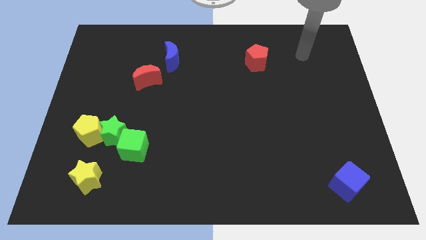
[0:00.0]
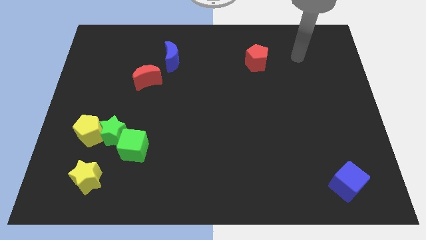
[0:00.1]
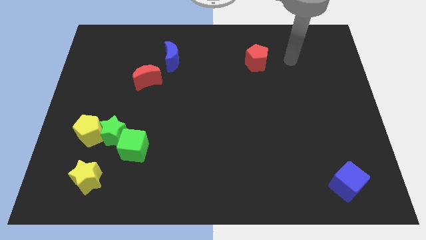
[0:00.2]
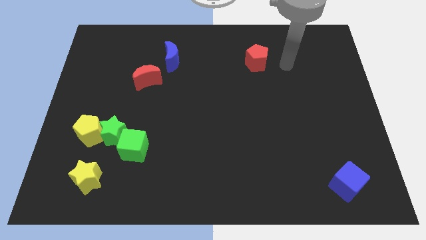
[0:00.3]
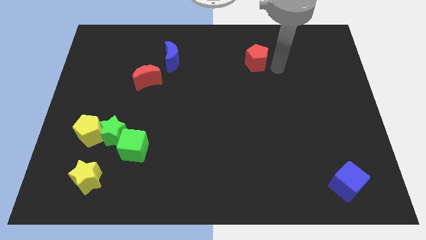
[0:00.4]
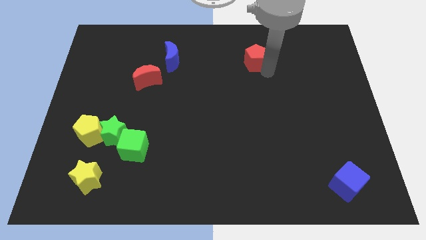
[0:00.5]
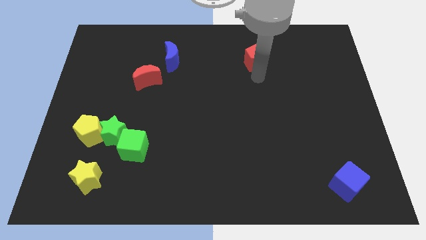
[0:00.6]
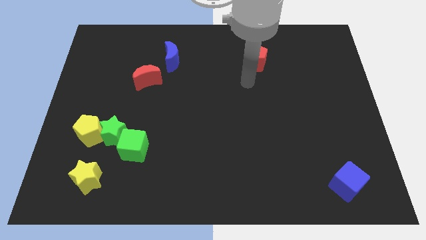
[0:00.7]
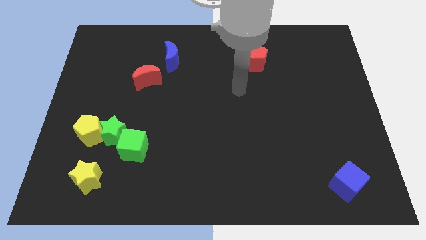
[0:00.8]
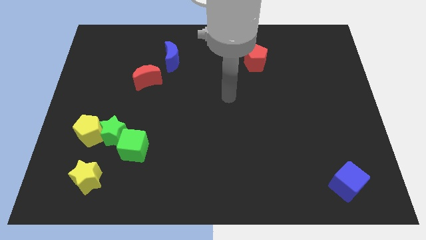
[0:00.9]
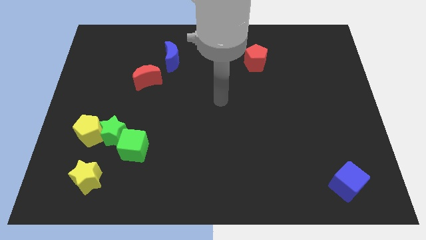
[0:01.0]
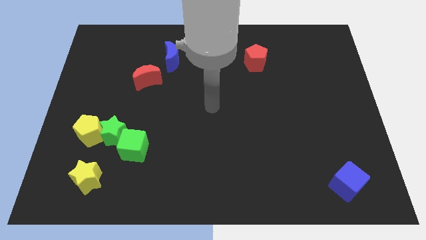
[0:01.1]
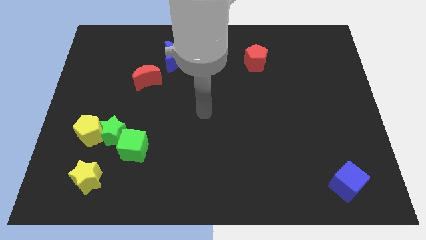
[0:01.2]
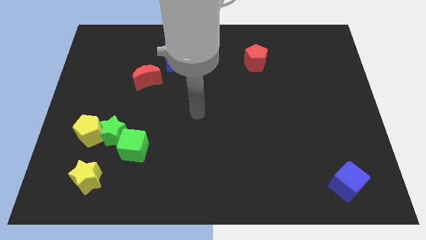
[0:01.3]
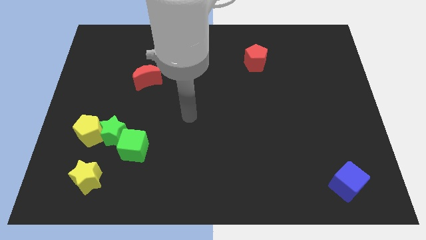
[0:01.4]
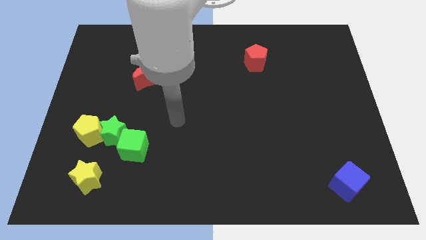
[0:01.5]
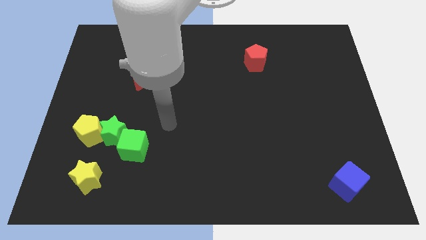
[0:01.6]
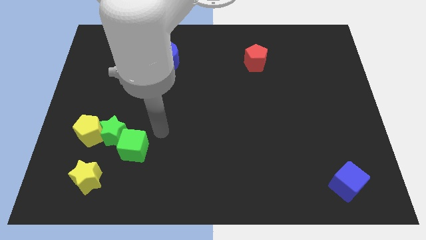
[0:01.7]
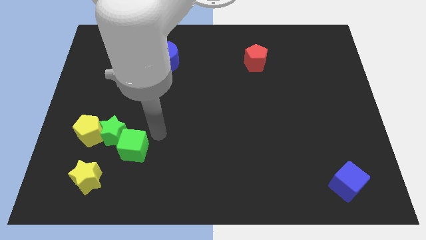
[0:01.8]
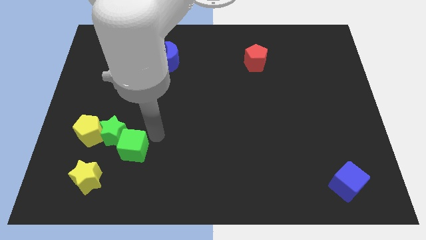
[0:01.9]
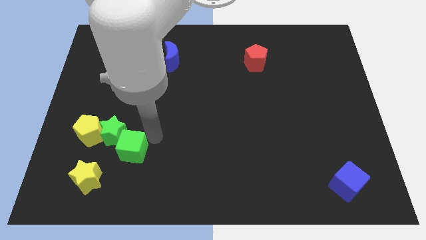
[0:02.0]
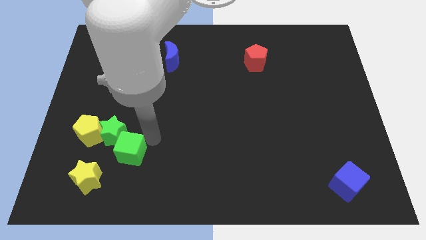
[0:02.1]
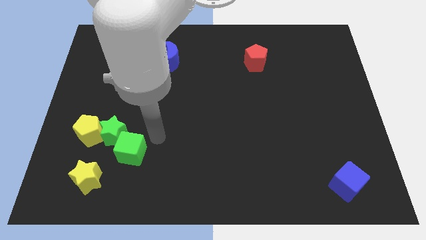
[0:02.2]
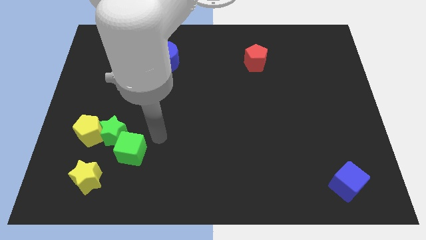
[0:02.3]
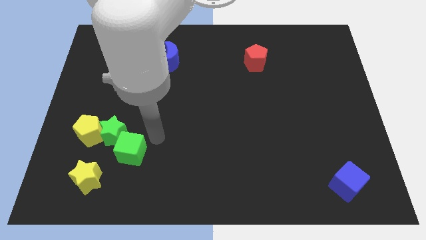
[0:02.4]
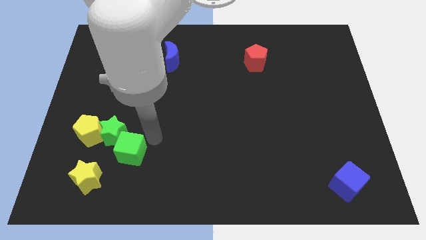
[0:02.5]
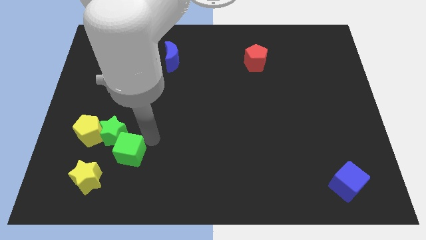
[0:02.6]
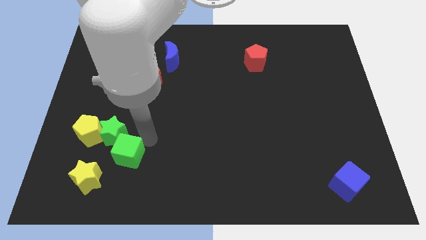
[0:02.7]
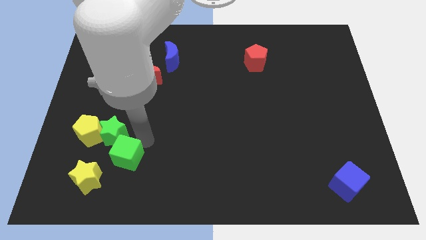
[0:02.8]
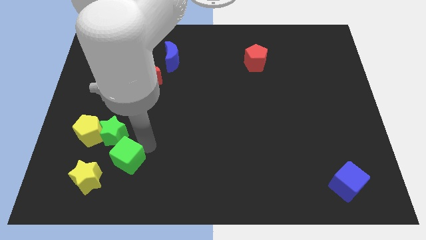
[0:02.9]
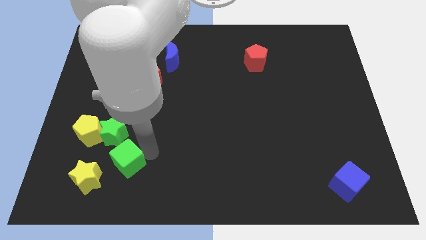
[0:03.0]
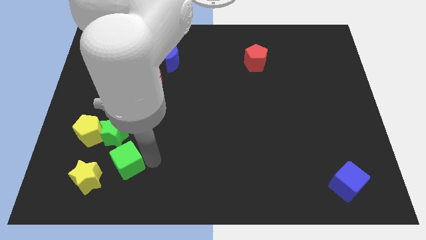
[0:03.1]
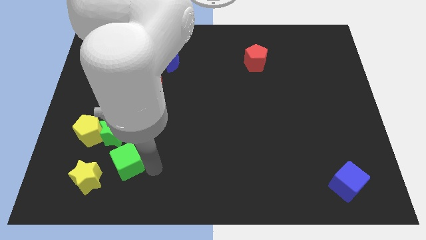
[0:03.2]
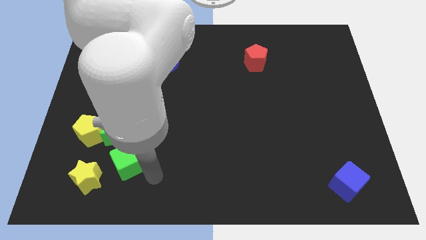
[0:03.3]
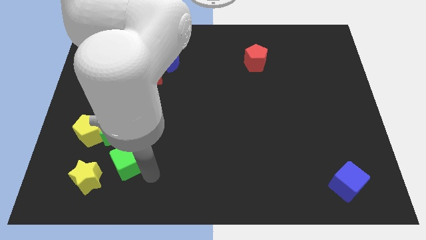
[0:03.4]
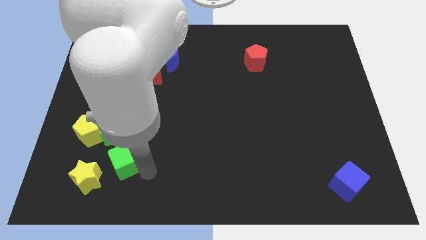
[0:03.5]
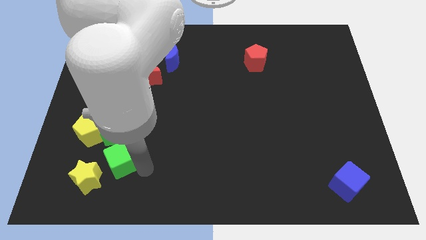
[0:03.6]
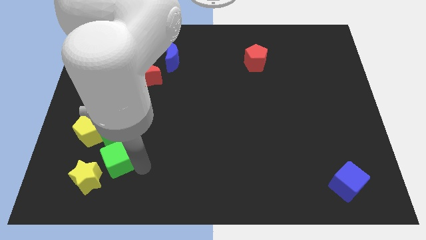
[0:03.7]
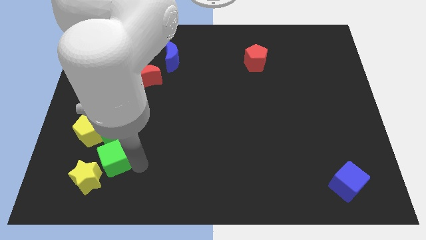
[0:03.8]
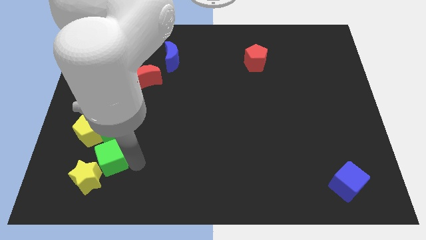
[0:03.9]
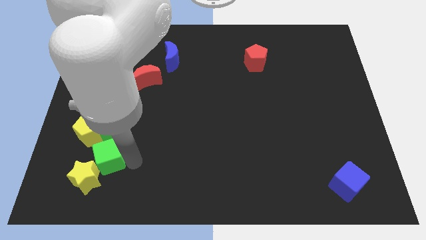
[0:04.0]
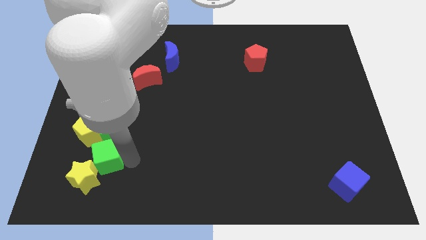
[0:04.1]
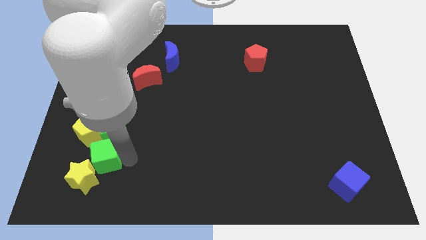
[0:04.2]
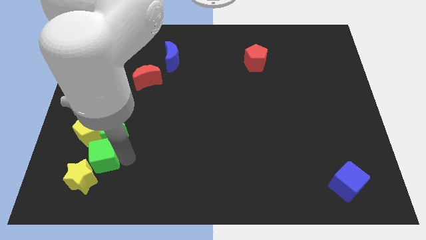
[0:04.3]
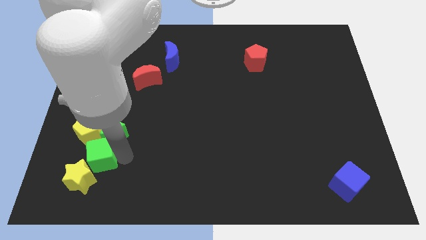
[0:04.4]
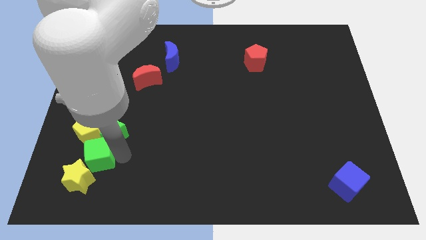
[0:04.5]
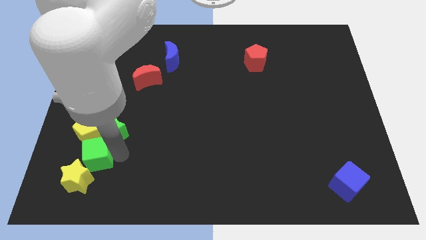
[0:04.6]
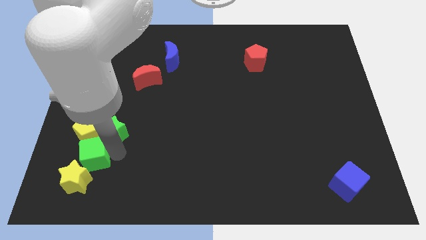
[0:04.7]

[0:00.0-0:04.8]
put the green cube next to the yellow pentagon

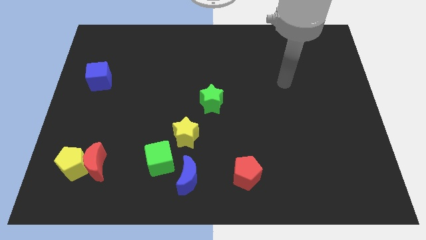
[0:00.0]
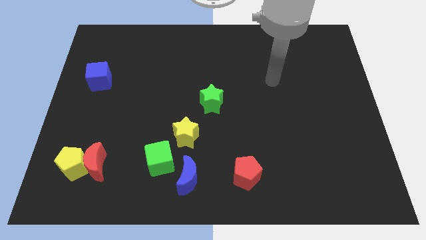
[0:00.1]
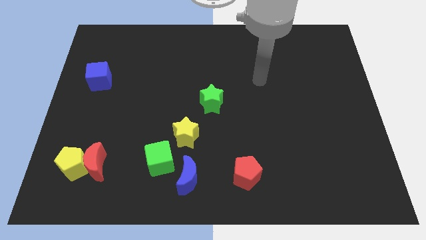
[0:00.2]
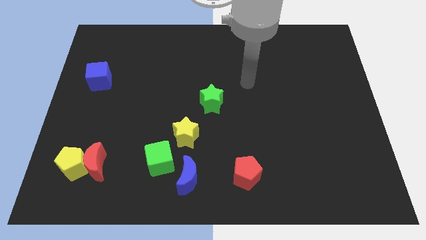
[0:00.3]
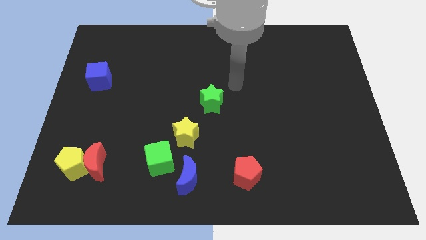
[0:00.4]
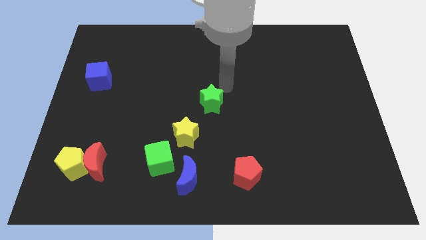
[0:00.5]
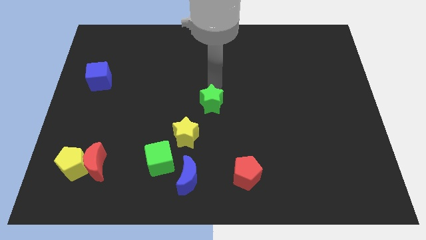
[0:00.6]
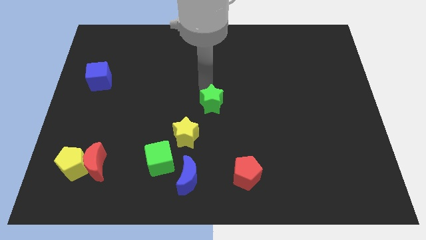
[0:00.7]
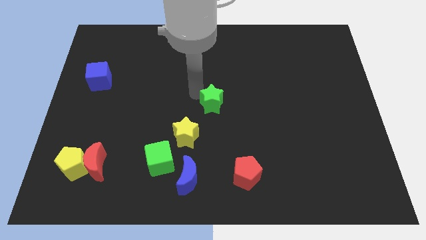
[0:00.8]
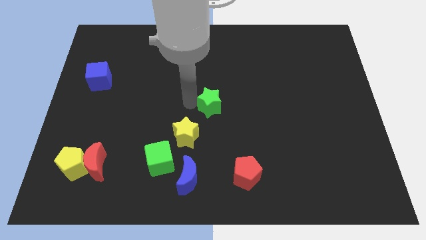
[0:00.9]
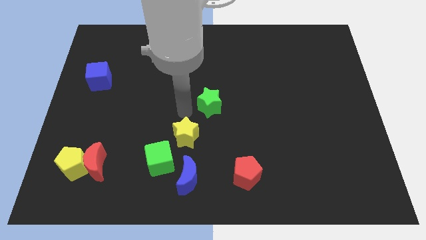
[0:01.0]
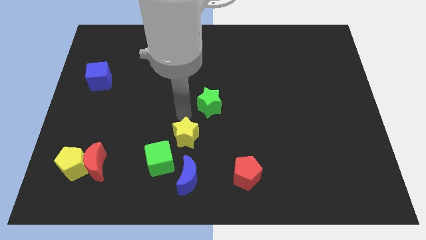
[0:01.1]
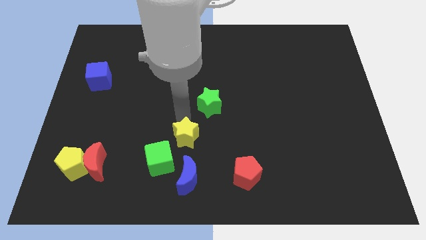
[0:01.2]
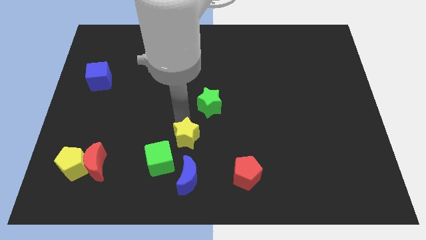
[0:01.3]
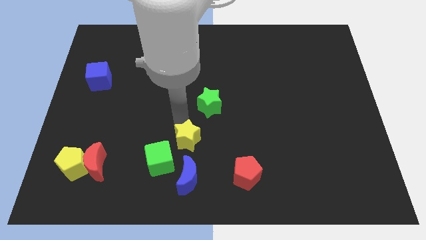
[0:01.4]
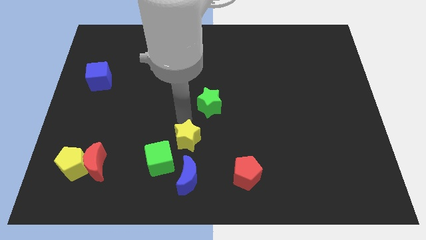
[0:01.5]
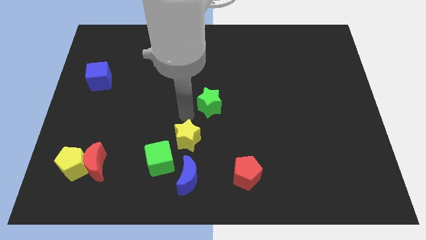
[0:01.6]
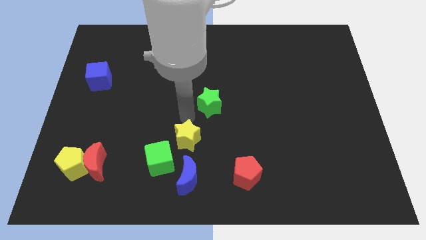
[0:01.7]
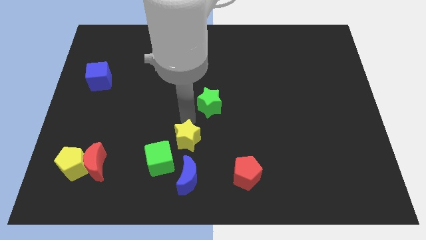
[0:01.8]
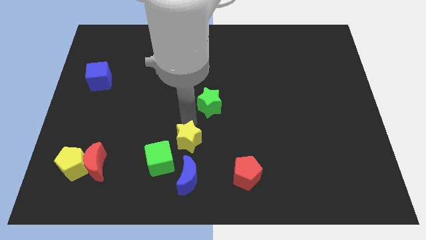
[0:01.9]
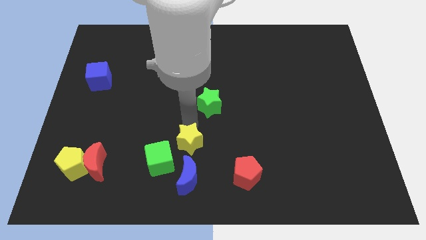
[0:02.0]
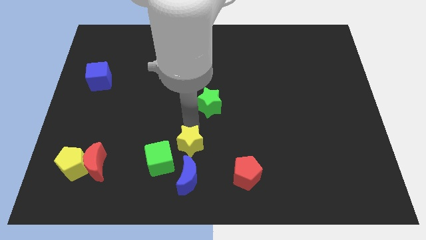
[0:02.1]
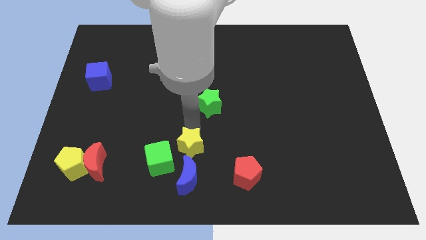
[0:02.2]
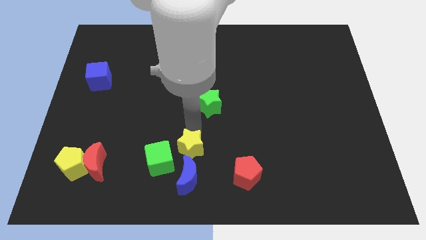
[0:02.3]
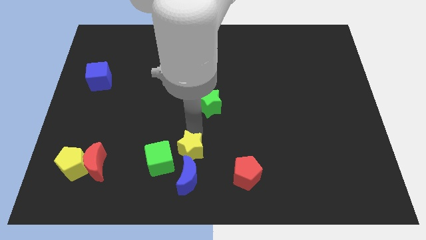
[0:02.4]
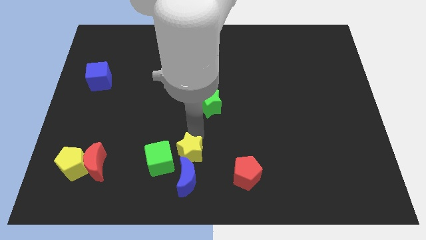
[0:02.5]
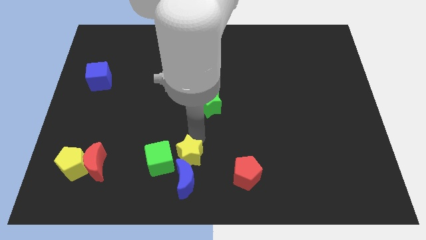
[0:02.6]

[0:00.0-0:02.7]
push the yellow star towards the blue moon
